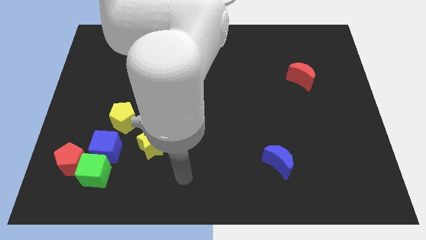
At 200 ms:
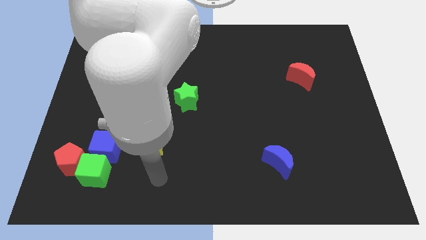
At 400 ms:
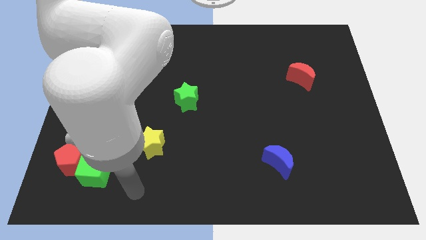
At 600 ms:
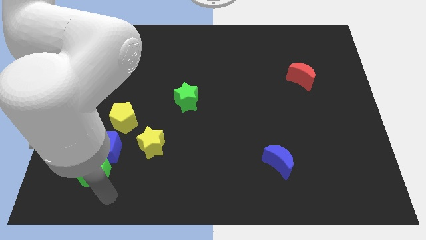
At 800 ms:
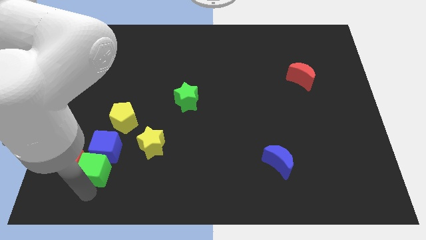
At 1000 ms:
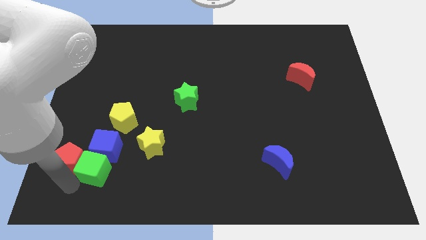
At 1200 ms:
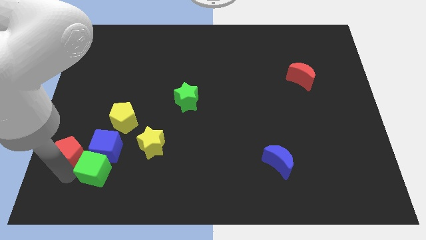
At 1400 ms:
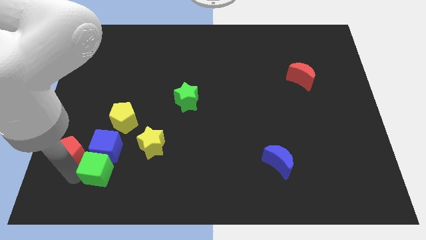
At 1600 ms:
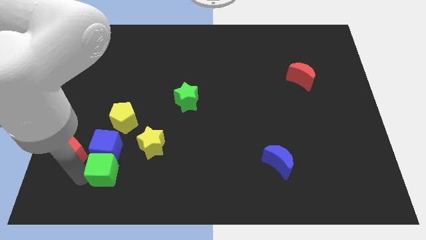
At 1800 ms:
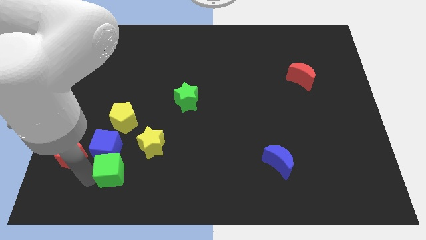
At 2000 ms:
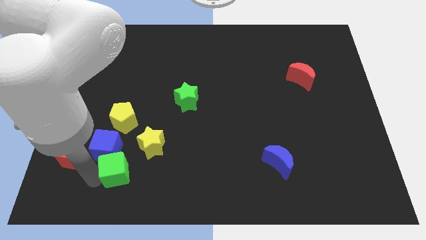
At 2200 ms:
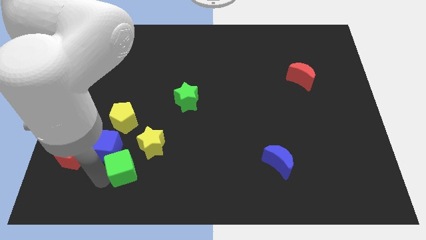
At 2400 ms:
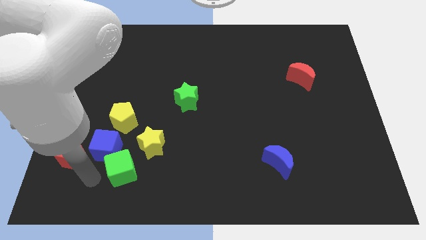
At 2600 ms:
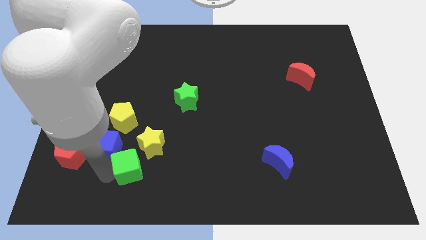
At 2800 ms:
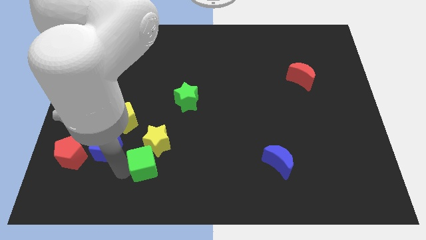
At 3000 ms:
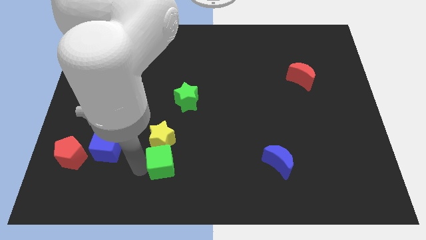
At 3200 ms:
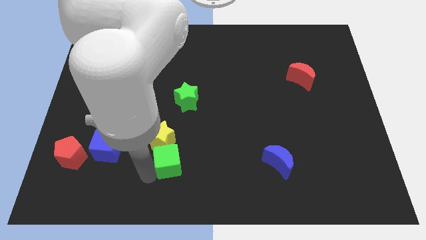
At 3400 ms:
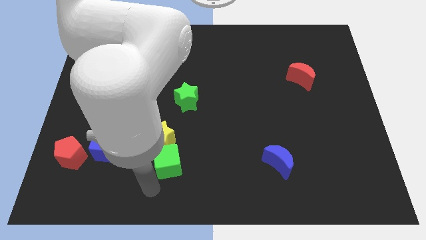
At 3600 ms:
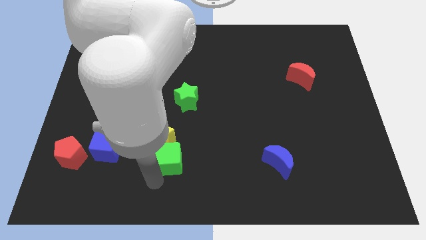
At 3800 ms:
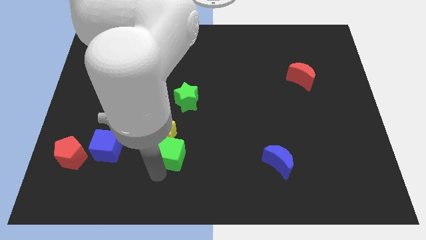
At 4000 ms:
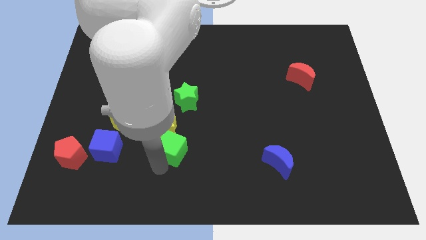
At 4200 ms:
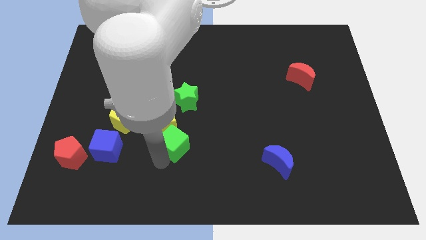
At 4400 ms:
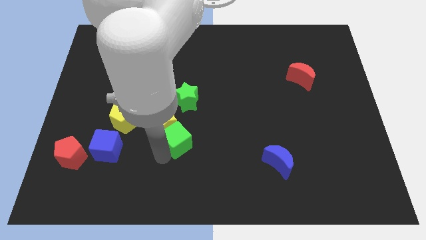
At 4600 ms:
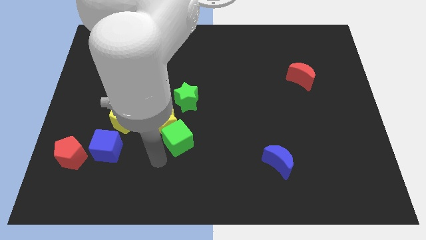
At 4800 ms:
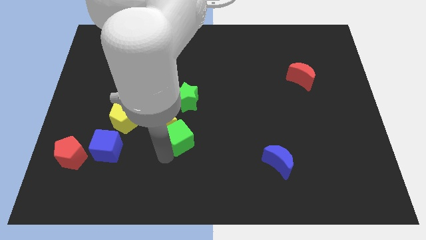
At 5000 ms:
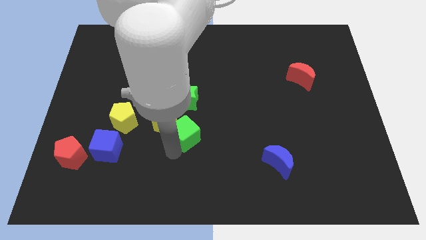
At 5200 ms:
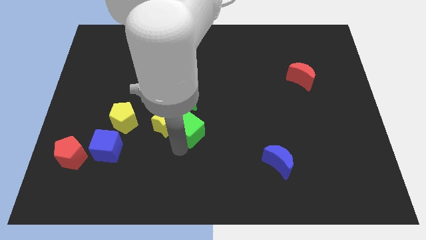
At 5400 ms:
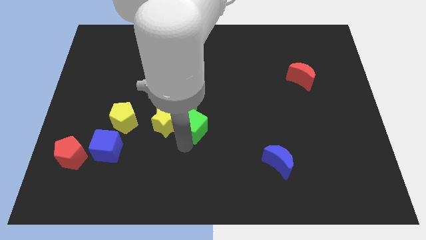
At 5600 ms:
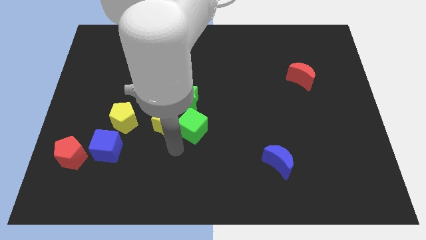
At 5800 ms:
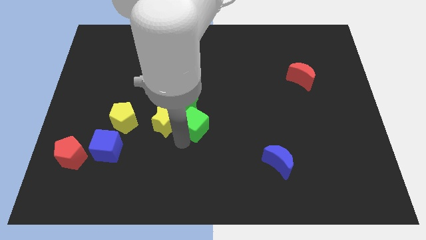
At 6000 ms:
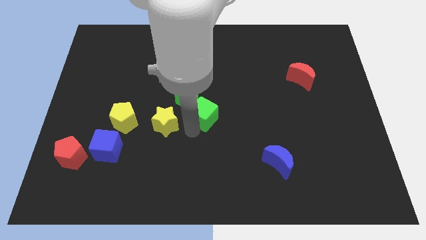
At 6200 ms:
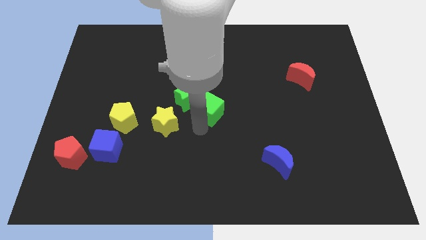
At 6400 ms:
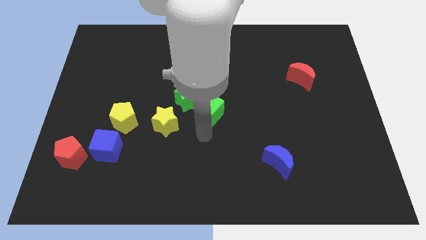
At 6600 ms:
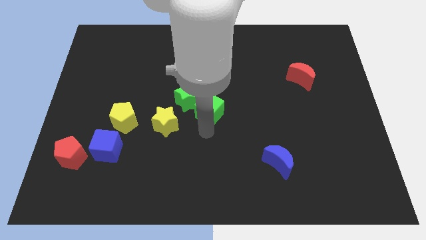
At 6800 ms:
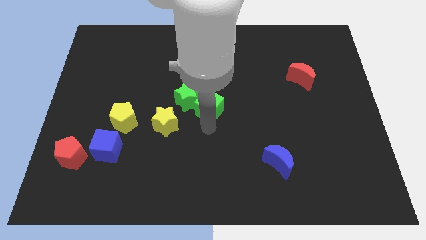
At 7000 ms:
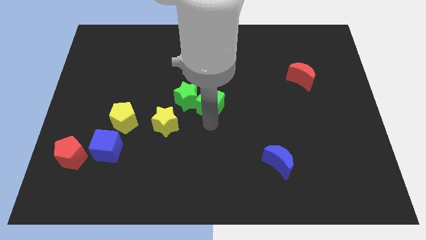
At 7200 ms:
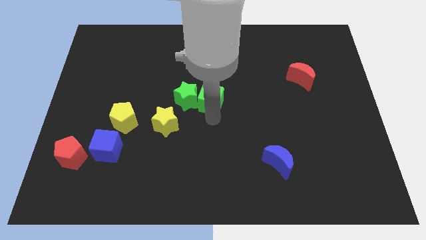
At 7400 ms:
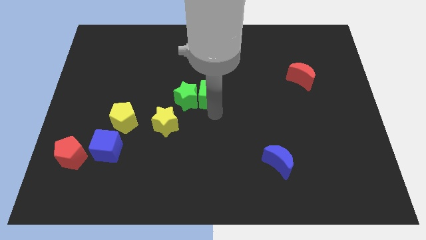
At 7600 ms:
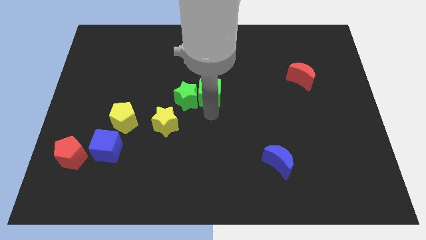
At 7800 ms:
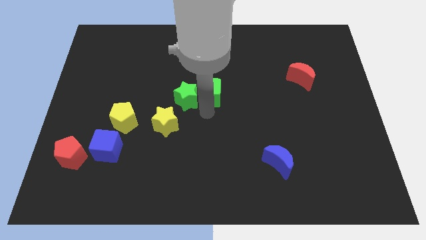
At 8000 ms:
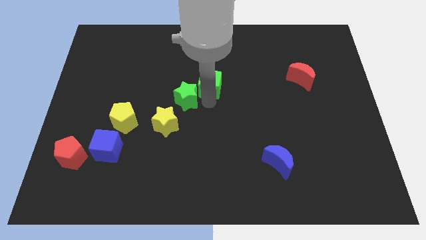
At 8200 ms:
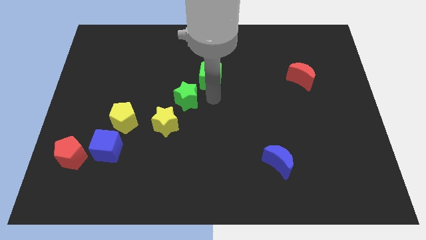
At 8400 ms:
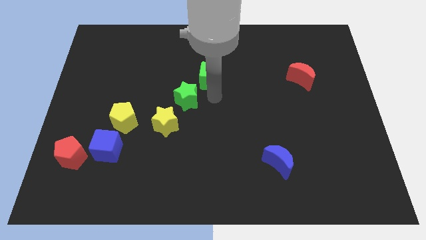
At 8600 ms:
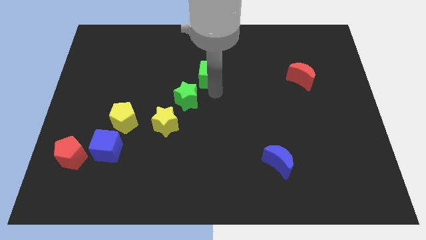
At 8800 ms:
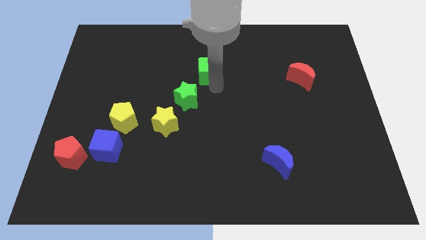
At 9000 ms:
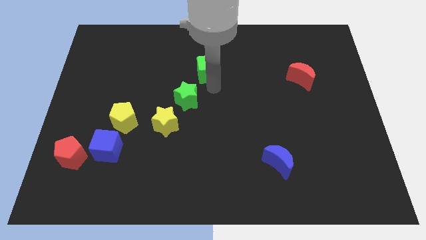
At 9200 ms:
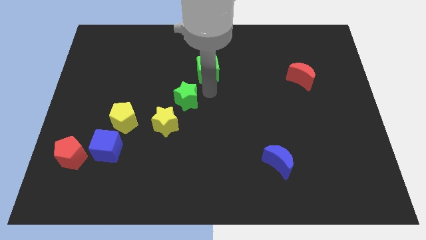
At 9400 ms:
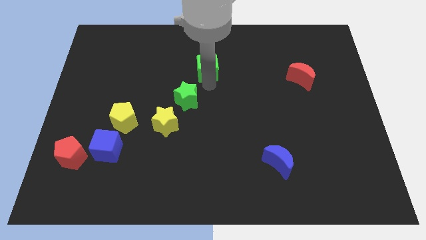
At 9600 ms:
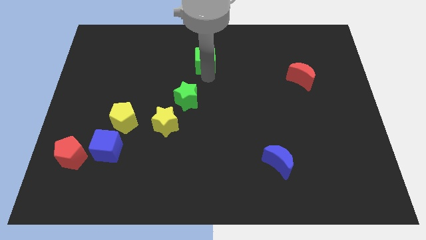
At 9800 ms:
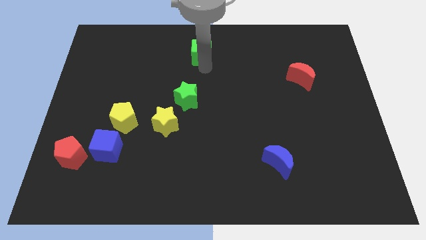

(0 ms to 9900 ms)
move the green cube to the top

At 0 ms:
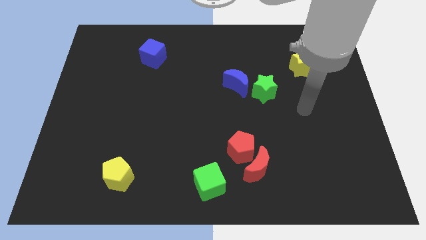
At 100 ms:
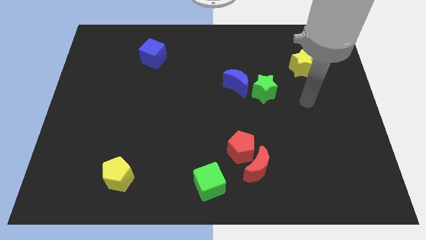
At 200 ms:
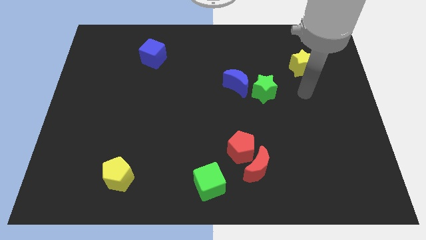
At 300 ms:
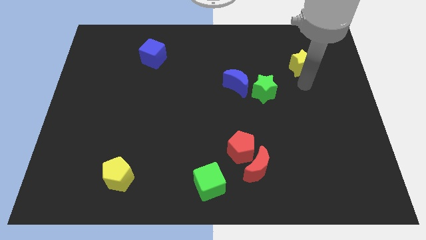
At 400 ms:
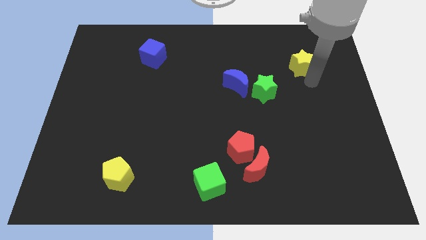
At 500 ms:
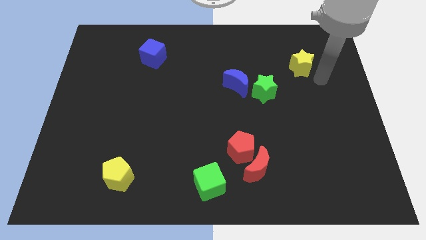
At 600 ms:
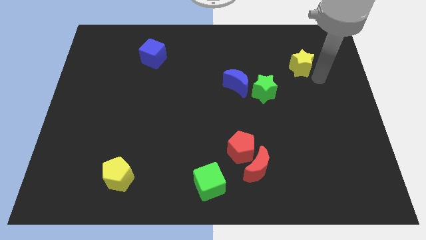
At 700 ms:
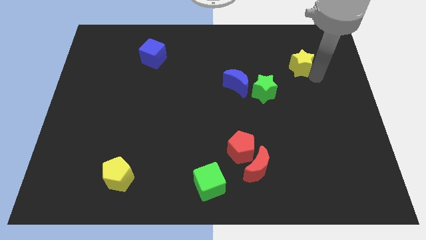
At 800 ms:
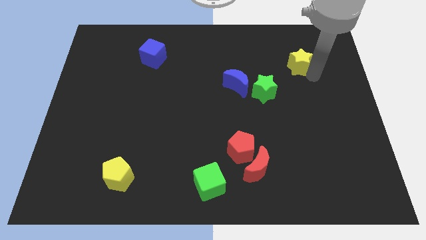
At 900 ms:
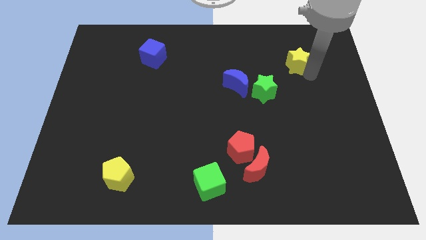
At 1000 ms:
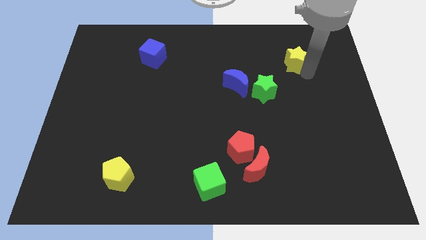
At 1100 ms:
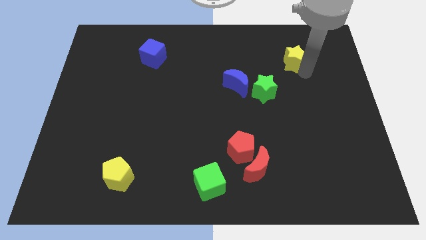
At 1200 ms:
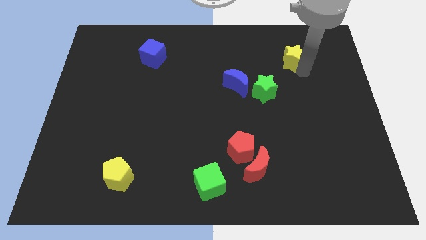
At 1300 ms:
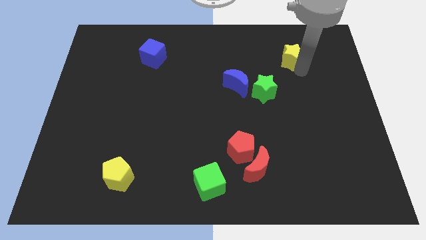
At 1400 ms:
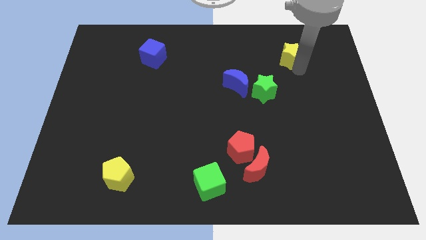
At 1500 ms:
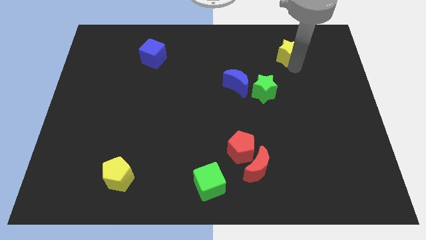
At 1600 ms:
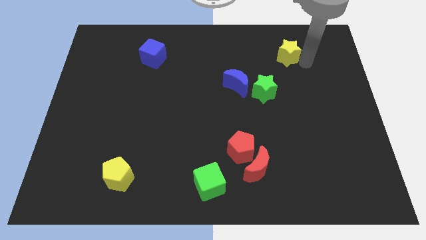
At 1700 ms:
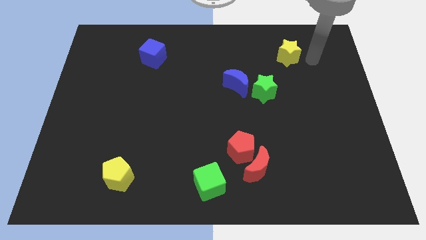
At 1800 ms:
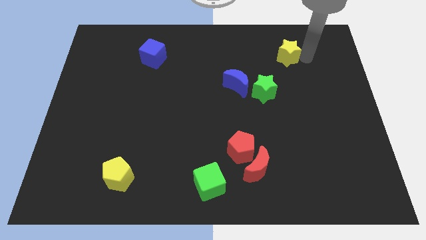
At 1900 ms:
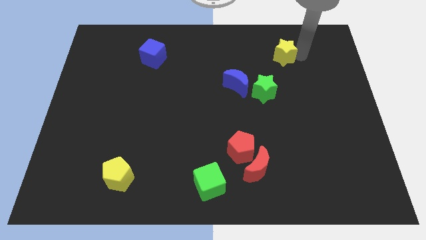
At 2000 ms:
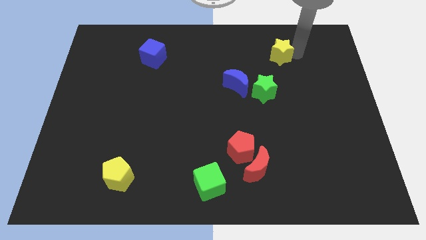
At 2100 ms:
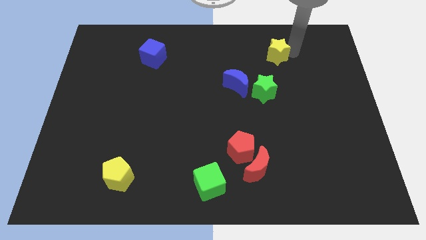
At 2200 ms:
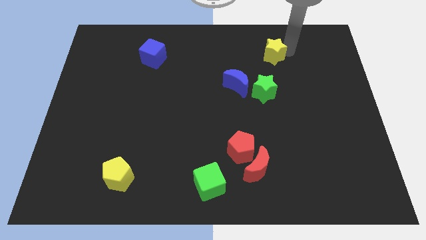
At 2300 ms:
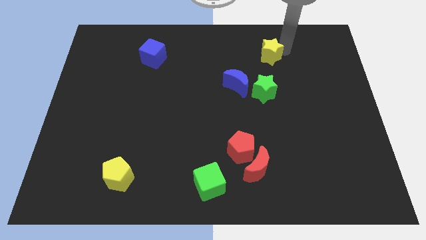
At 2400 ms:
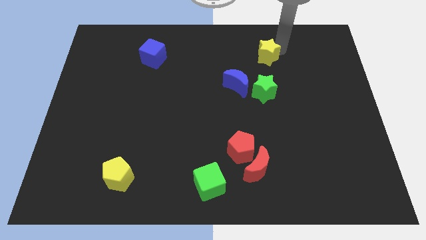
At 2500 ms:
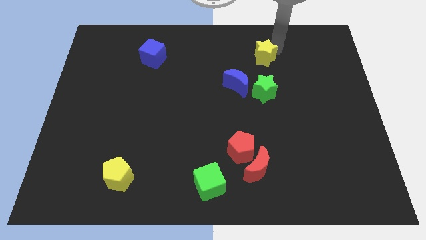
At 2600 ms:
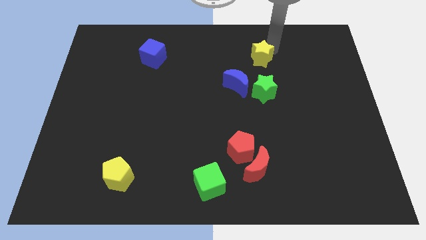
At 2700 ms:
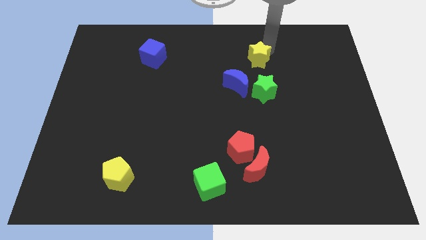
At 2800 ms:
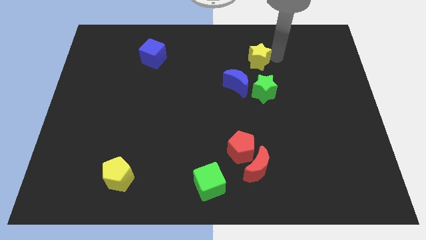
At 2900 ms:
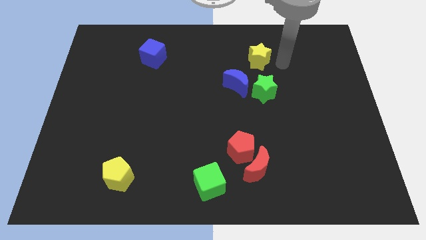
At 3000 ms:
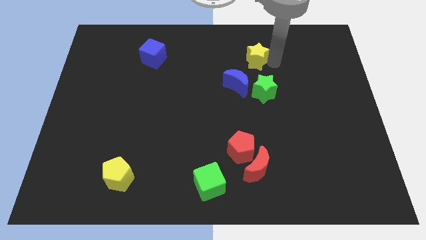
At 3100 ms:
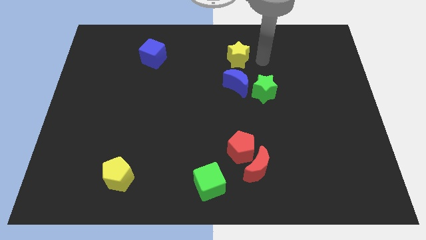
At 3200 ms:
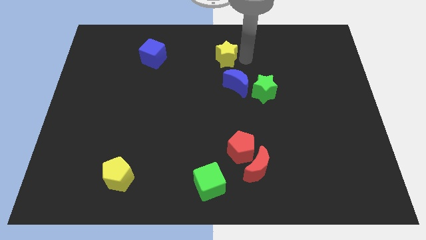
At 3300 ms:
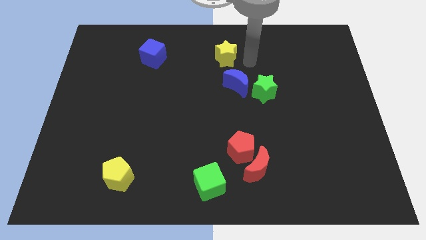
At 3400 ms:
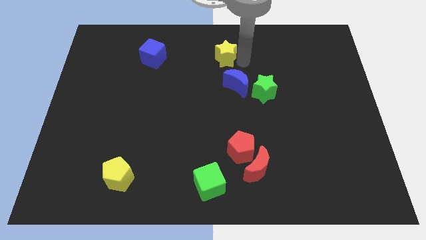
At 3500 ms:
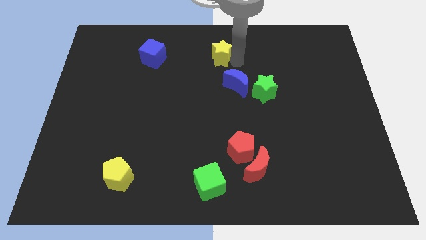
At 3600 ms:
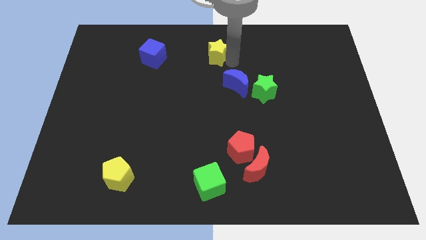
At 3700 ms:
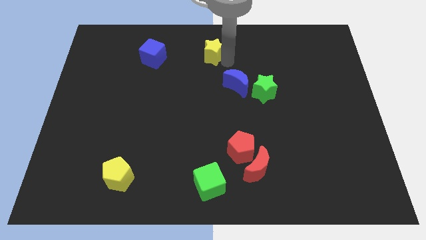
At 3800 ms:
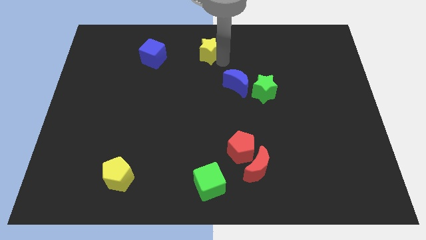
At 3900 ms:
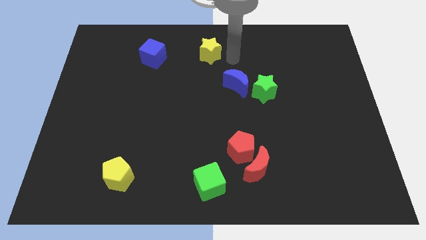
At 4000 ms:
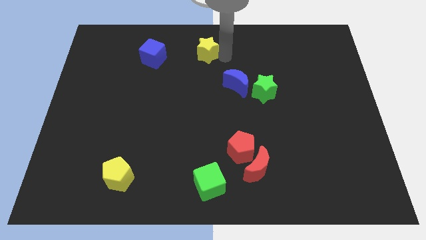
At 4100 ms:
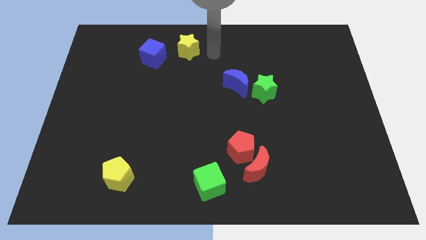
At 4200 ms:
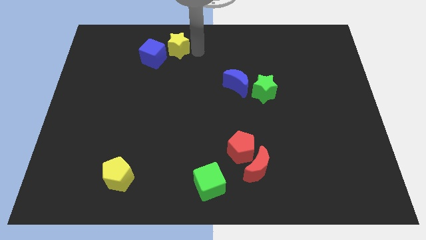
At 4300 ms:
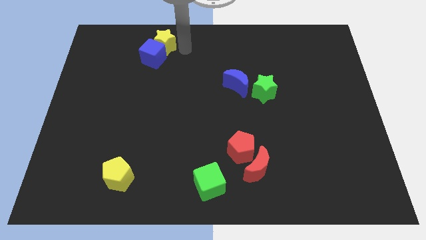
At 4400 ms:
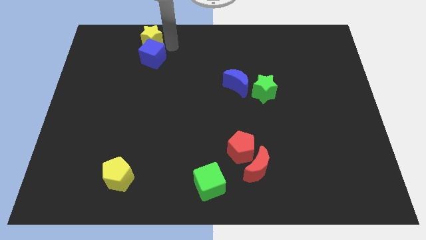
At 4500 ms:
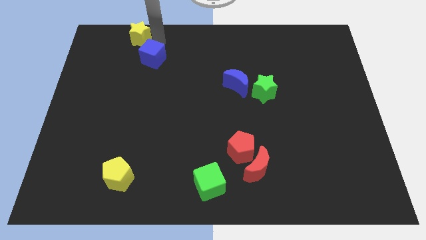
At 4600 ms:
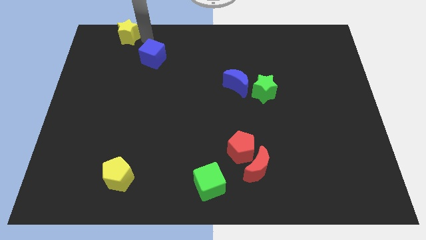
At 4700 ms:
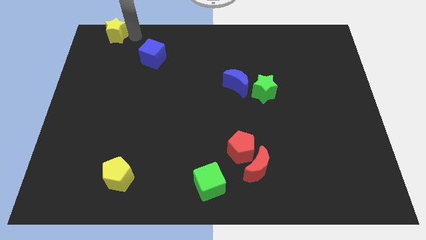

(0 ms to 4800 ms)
push the yellow star to the top left of the board
